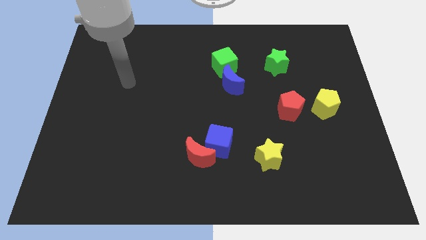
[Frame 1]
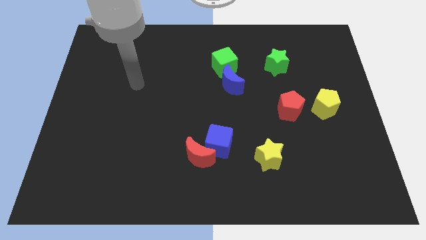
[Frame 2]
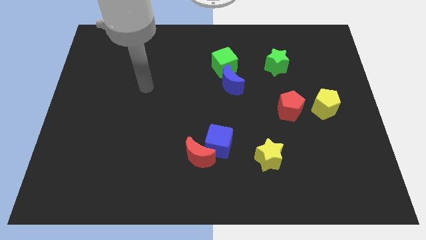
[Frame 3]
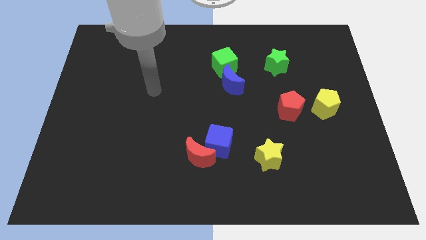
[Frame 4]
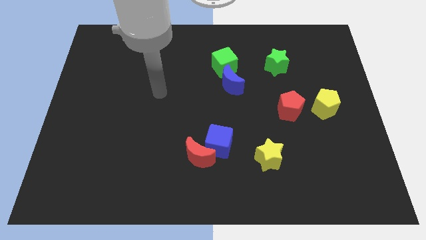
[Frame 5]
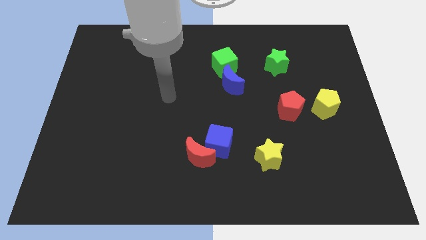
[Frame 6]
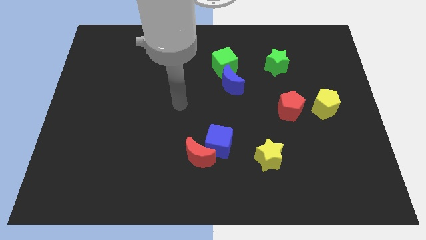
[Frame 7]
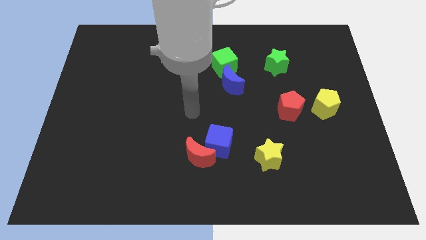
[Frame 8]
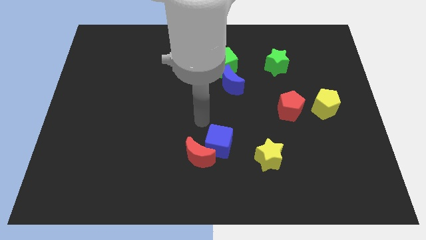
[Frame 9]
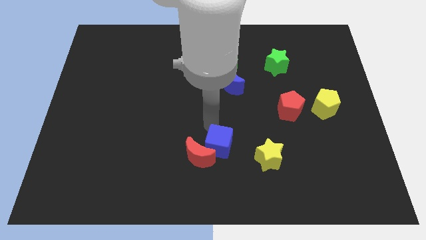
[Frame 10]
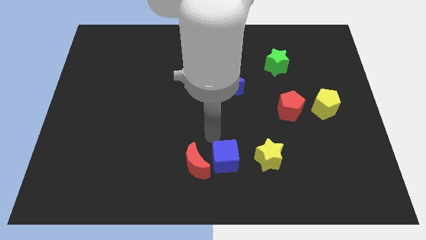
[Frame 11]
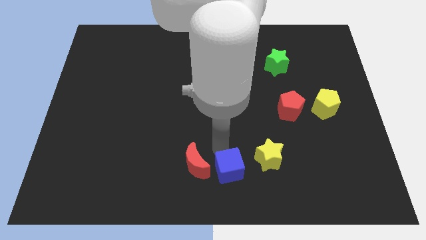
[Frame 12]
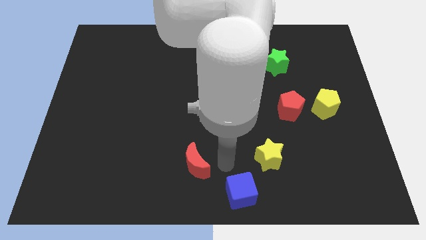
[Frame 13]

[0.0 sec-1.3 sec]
separate the red moon from the blue cube

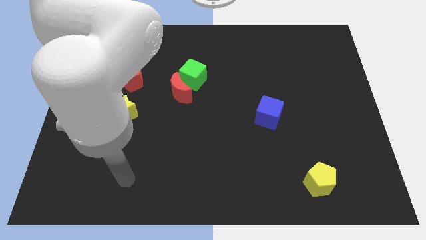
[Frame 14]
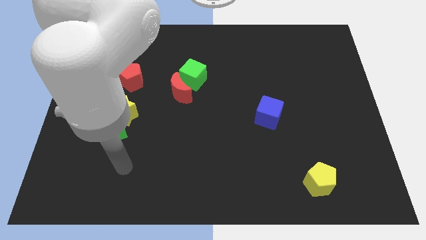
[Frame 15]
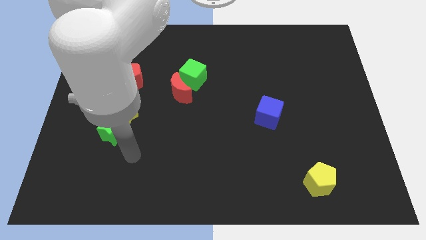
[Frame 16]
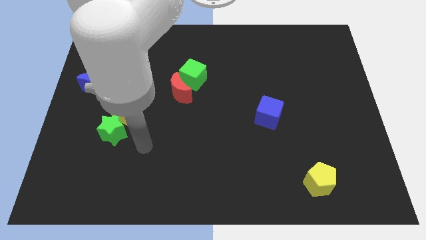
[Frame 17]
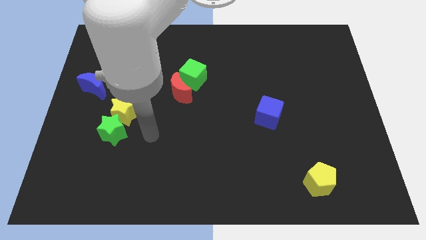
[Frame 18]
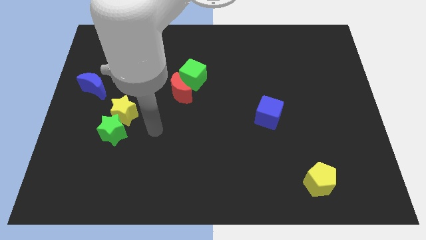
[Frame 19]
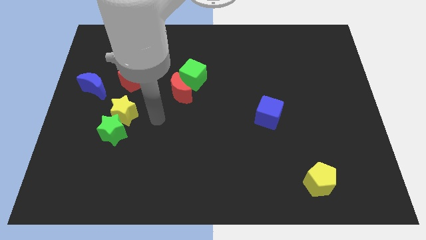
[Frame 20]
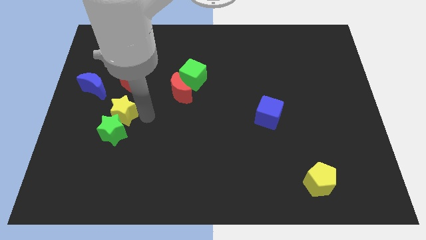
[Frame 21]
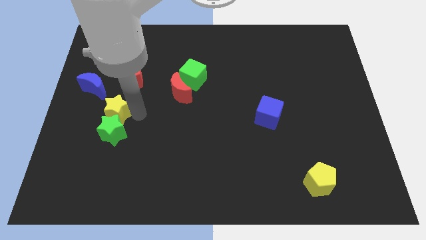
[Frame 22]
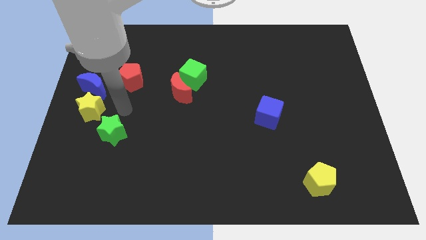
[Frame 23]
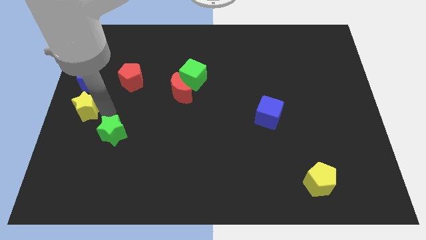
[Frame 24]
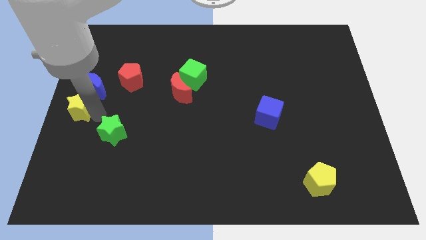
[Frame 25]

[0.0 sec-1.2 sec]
pull the green star apart from the yellow star

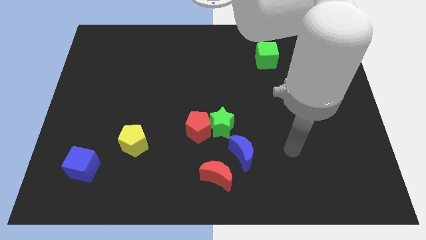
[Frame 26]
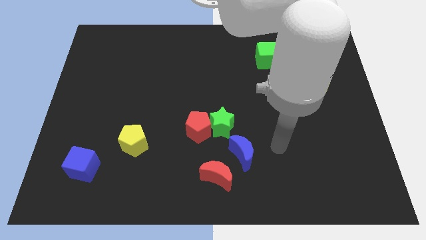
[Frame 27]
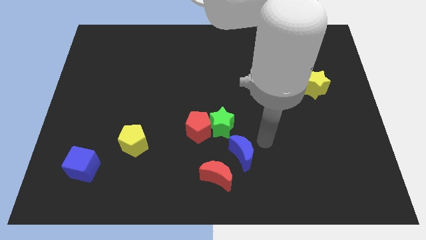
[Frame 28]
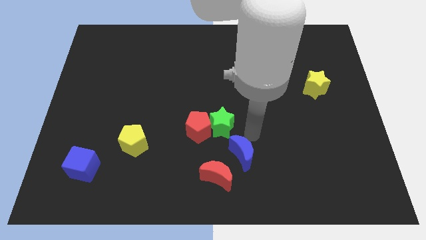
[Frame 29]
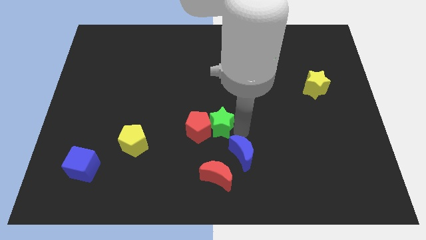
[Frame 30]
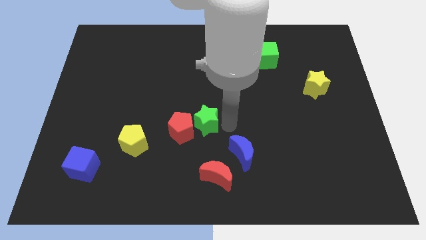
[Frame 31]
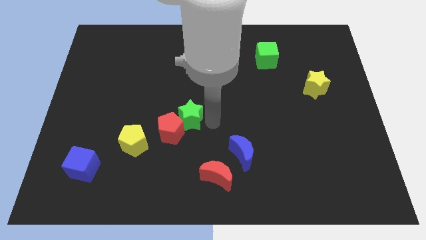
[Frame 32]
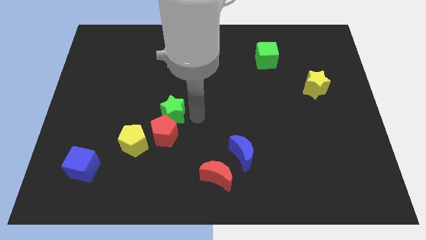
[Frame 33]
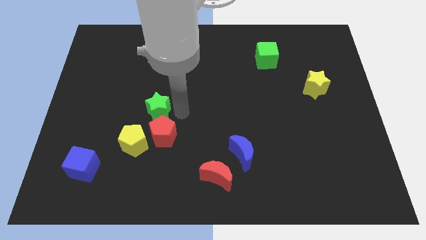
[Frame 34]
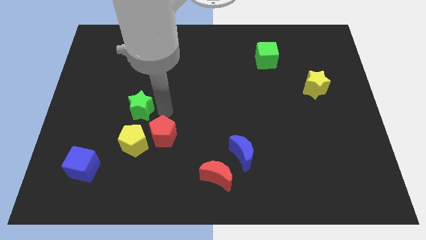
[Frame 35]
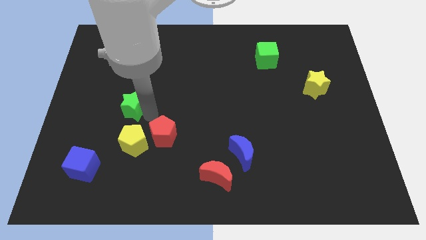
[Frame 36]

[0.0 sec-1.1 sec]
move the red pentagon away from the green star

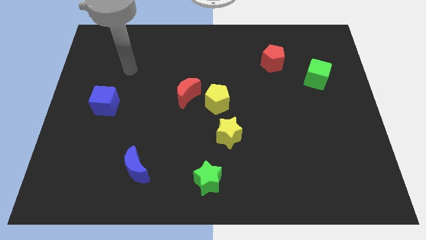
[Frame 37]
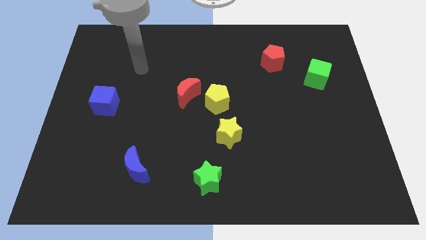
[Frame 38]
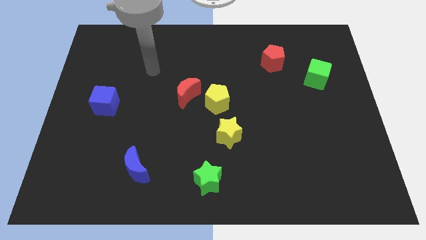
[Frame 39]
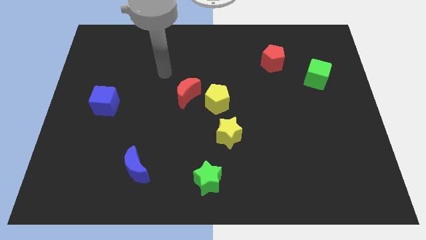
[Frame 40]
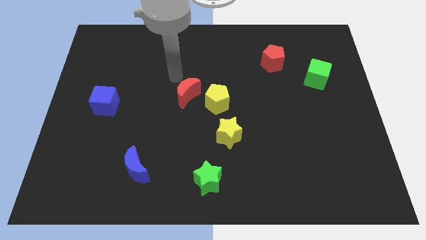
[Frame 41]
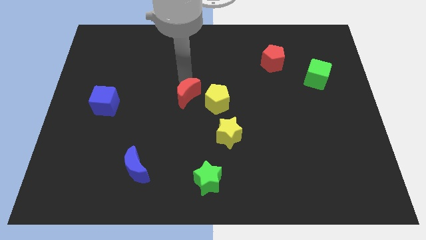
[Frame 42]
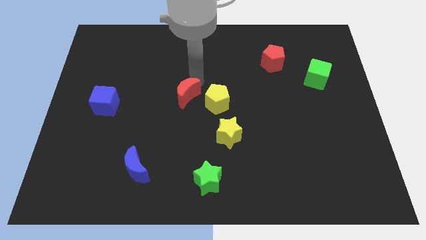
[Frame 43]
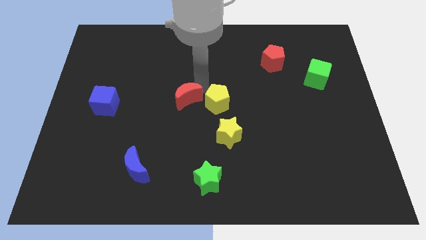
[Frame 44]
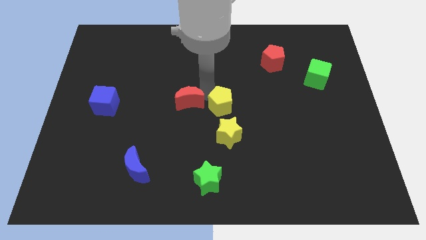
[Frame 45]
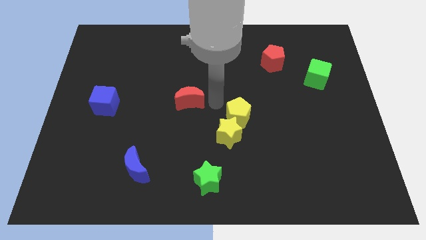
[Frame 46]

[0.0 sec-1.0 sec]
move the red moon away from the yellow pentagon

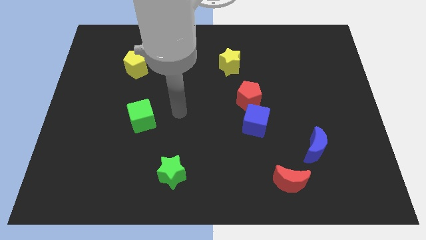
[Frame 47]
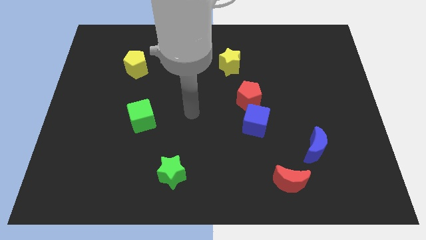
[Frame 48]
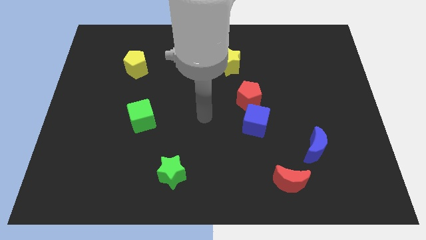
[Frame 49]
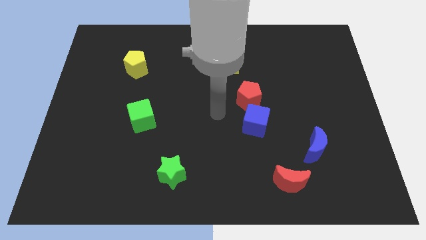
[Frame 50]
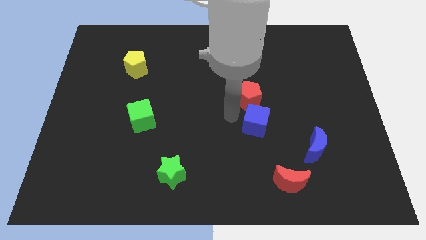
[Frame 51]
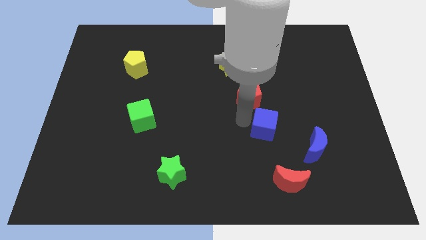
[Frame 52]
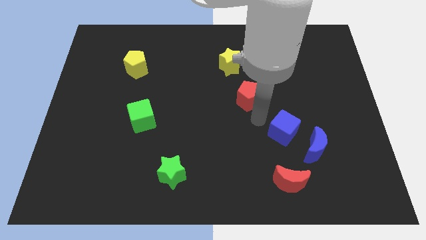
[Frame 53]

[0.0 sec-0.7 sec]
move the red pentagon away from the blue cube

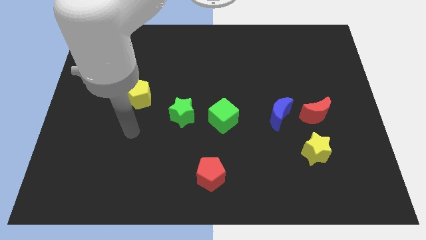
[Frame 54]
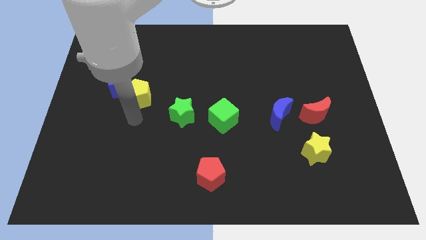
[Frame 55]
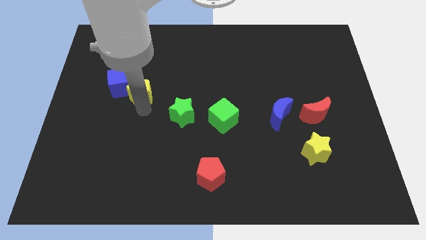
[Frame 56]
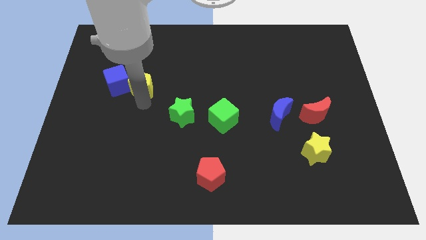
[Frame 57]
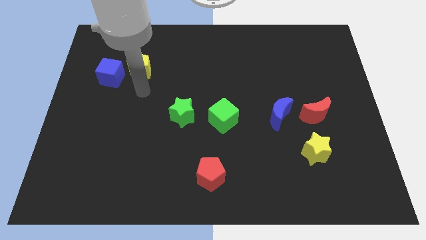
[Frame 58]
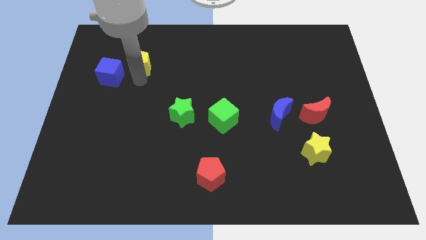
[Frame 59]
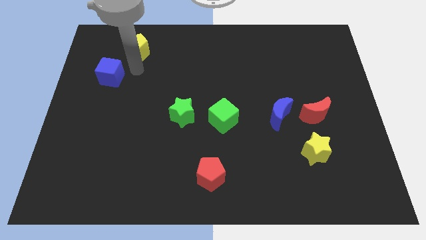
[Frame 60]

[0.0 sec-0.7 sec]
move the blue cube away from the yellow pentagon

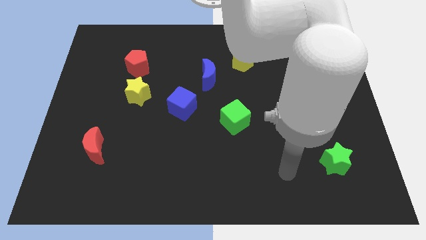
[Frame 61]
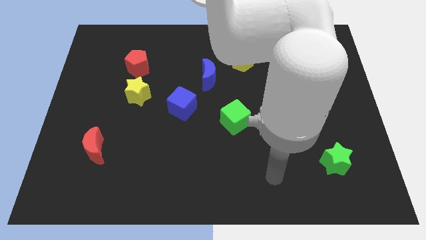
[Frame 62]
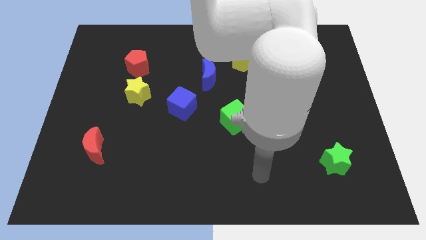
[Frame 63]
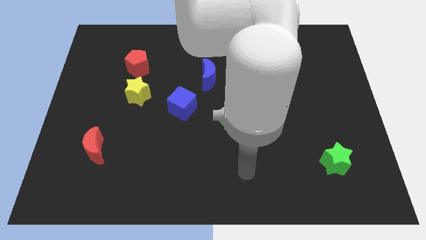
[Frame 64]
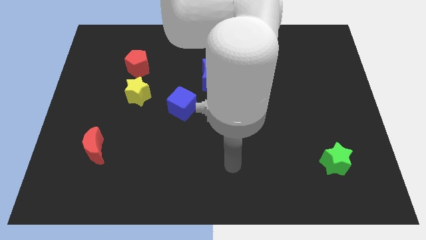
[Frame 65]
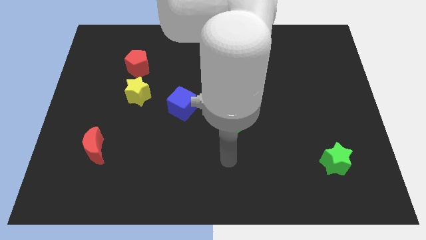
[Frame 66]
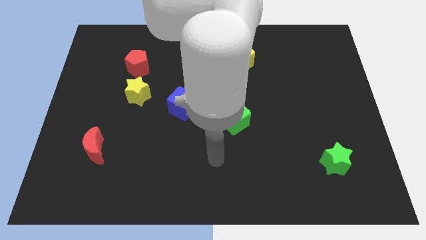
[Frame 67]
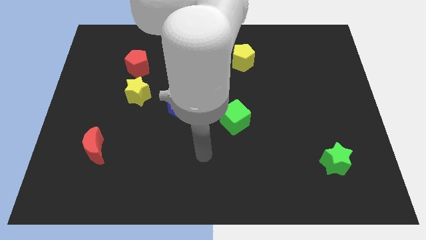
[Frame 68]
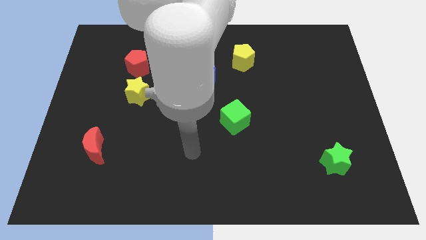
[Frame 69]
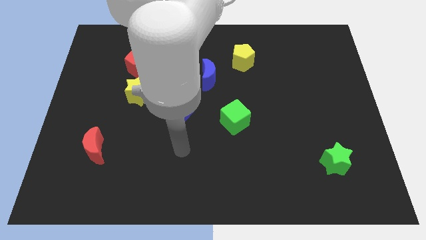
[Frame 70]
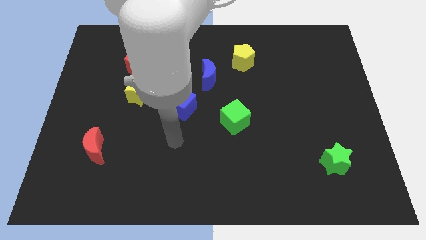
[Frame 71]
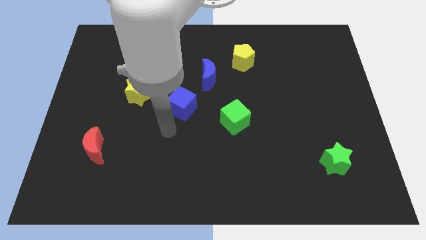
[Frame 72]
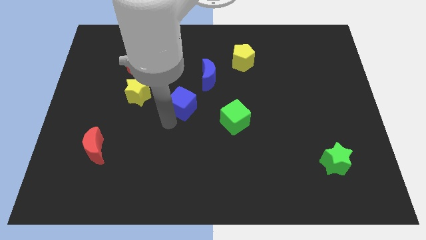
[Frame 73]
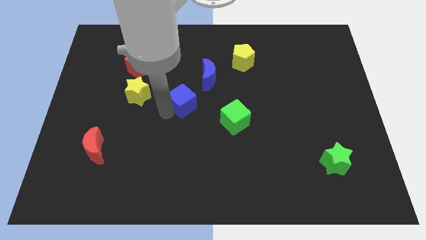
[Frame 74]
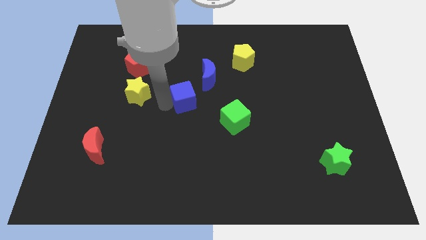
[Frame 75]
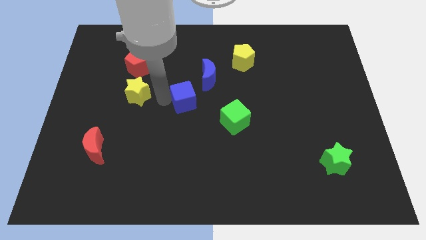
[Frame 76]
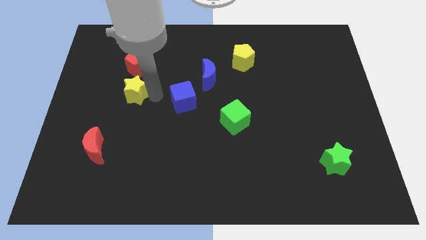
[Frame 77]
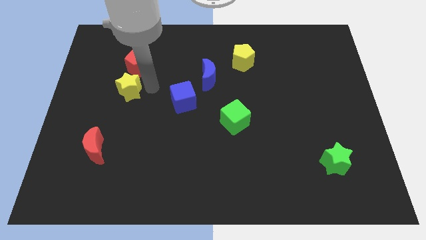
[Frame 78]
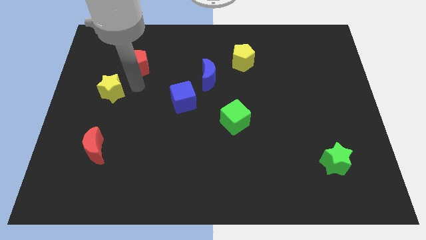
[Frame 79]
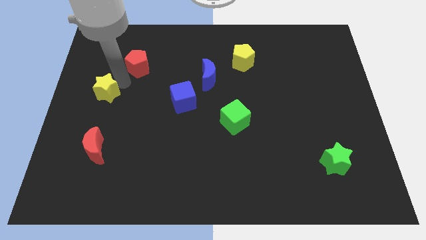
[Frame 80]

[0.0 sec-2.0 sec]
pull the red pentagon apart from the yellow star

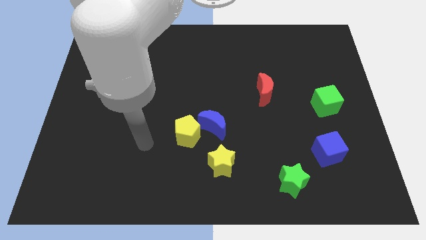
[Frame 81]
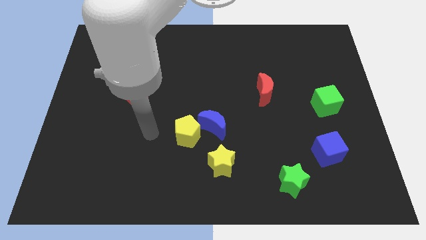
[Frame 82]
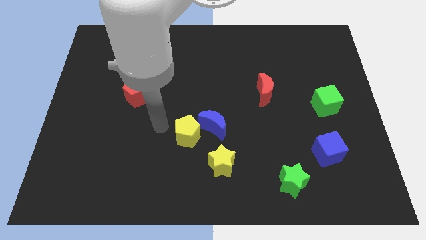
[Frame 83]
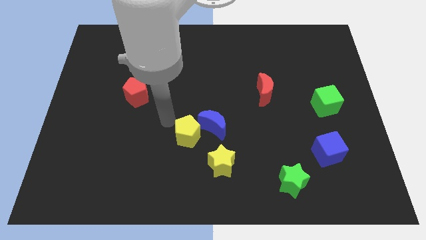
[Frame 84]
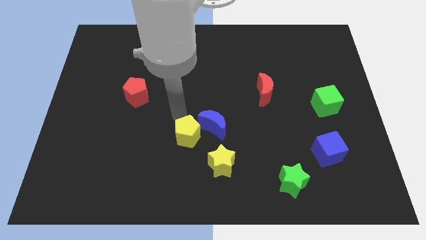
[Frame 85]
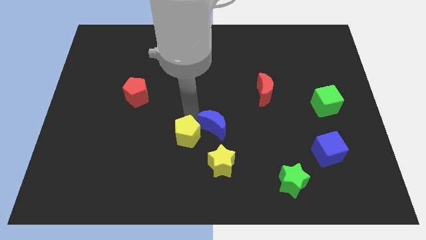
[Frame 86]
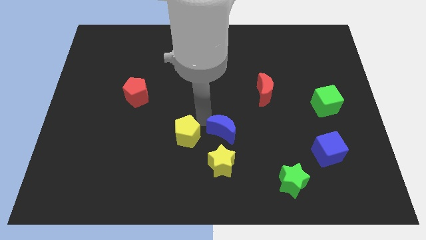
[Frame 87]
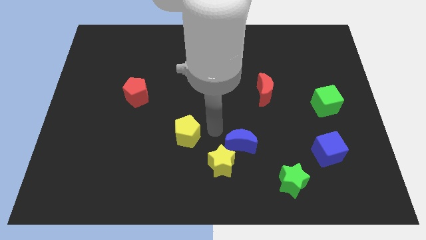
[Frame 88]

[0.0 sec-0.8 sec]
move the yellow pentagon away from the blue moon

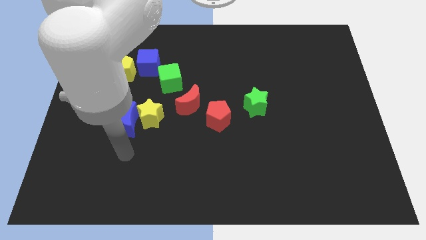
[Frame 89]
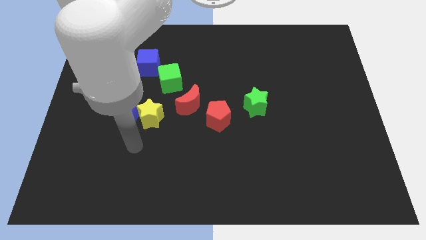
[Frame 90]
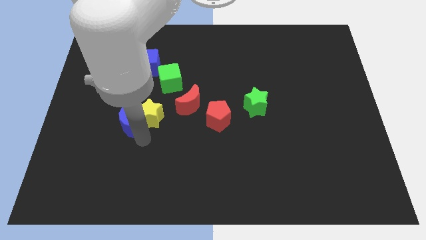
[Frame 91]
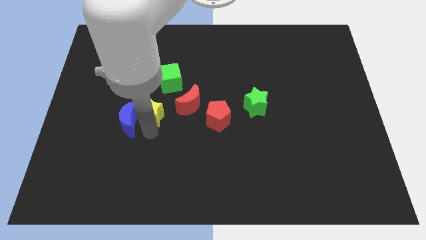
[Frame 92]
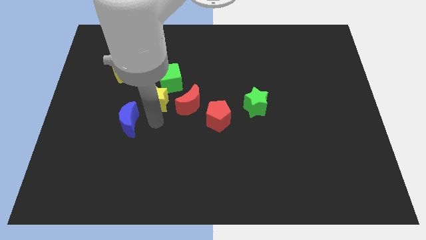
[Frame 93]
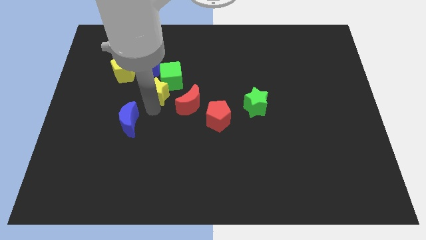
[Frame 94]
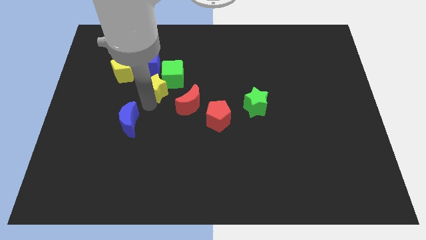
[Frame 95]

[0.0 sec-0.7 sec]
pull the blue moon apart from the yellow star
